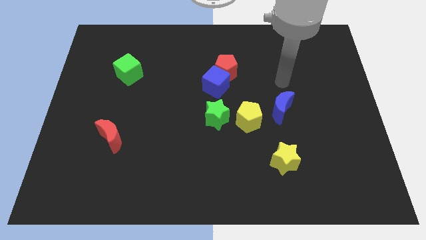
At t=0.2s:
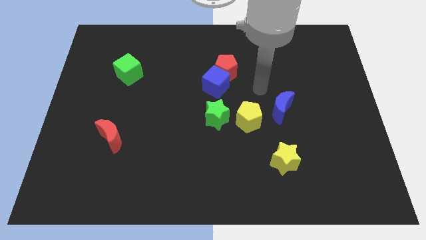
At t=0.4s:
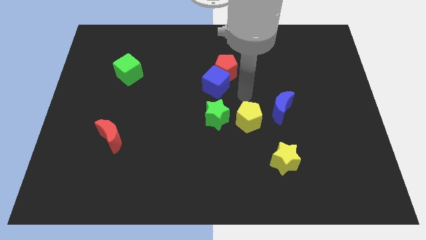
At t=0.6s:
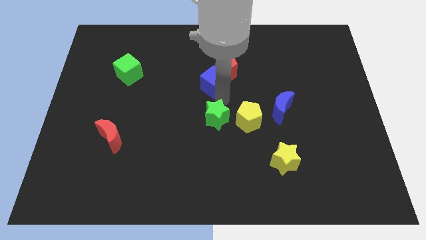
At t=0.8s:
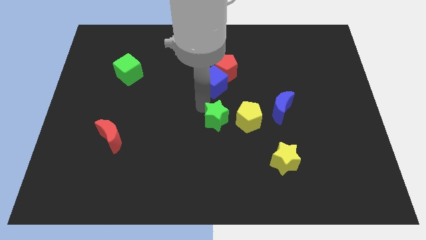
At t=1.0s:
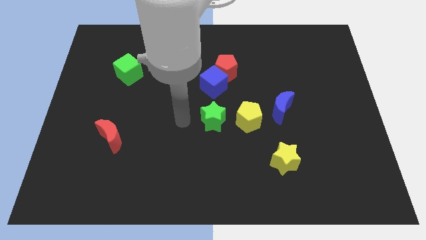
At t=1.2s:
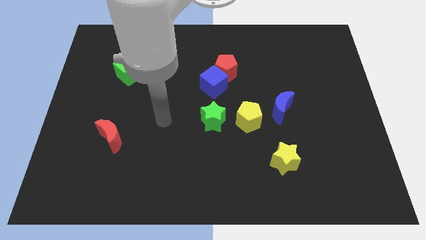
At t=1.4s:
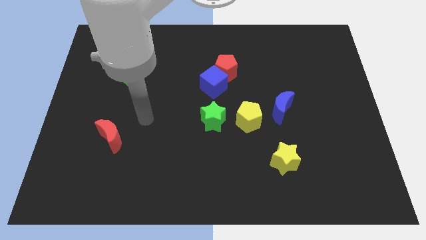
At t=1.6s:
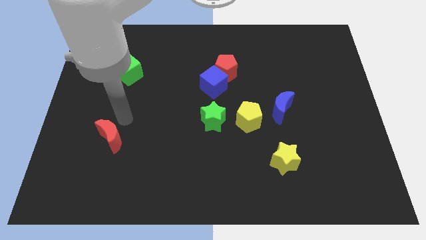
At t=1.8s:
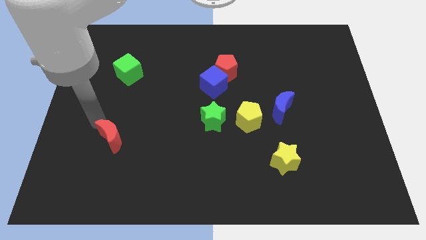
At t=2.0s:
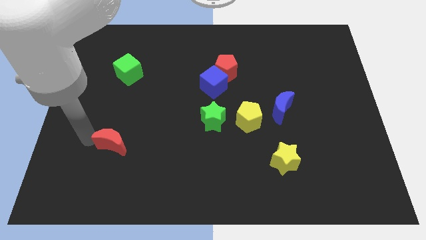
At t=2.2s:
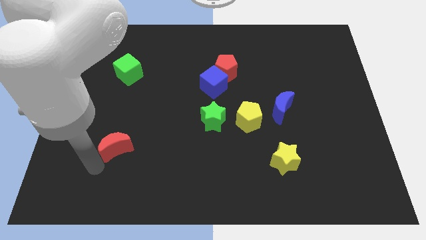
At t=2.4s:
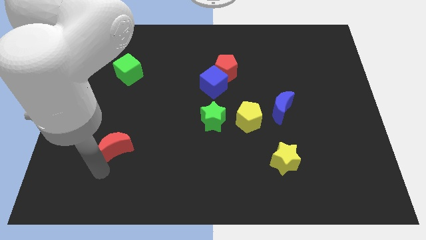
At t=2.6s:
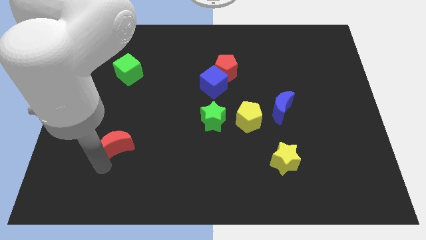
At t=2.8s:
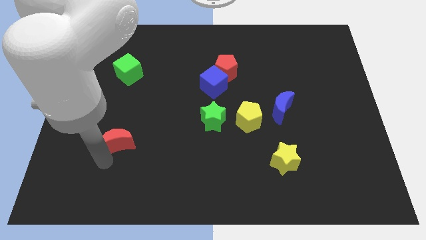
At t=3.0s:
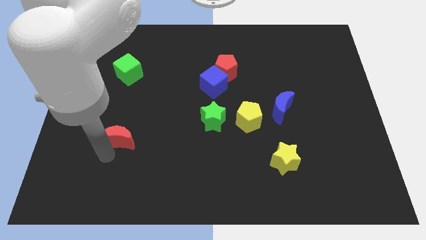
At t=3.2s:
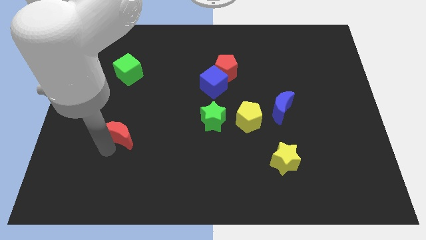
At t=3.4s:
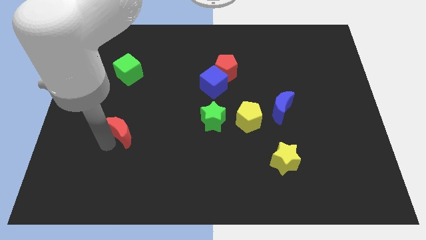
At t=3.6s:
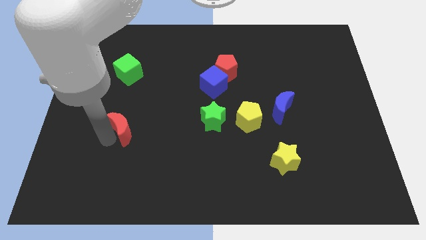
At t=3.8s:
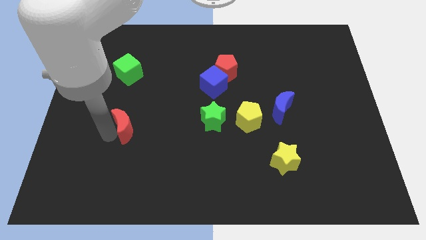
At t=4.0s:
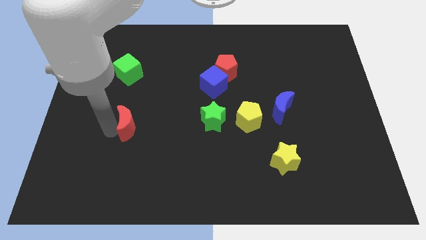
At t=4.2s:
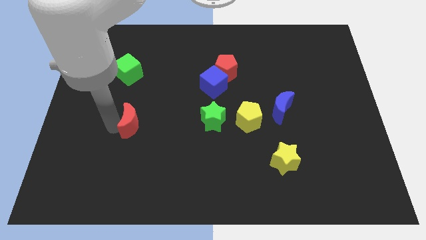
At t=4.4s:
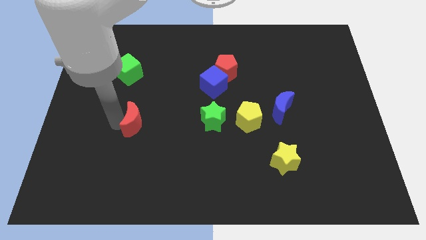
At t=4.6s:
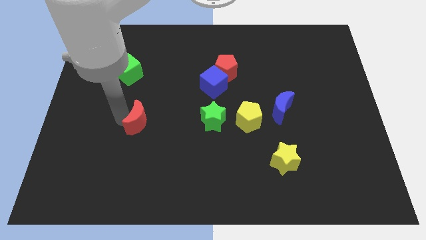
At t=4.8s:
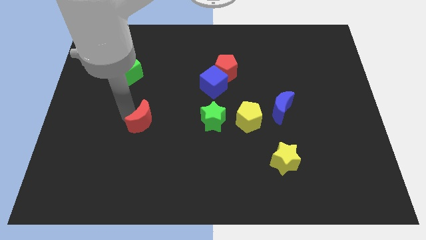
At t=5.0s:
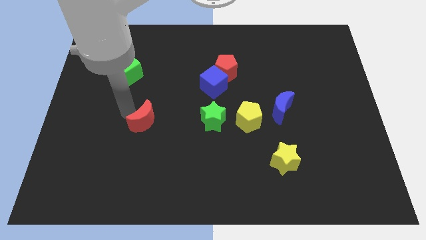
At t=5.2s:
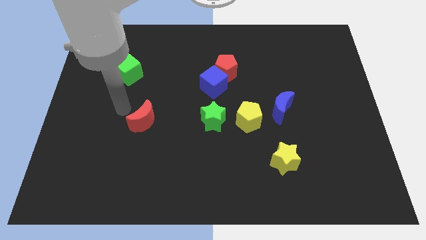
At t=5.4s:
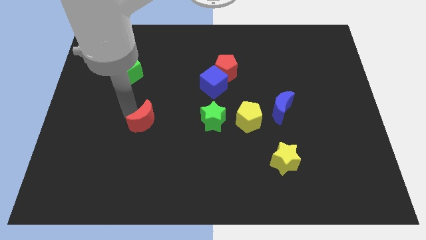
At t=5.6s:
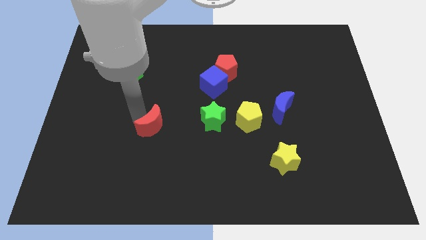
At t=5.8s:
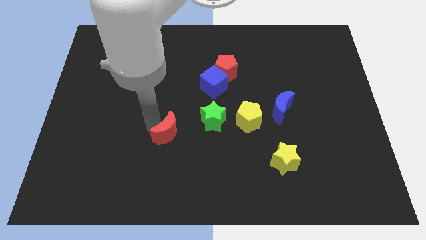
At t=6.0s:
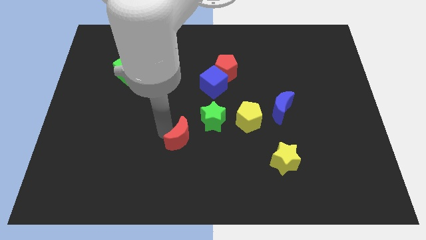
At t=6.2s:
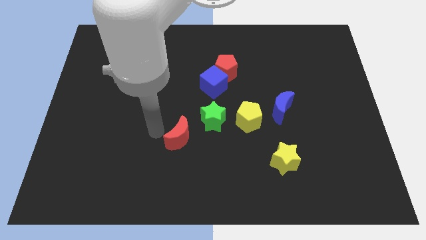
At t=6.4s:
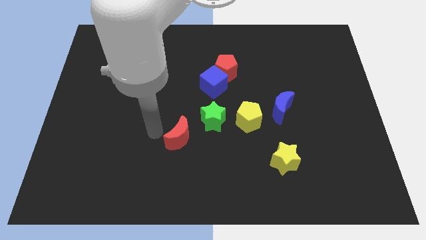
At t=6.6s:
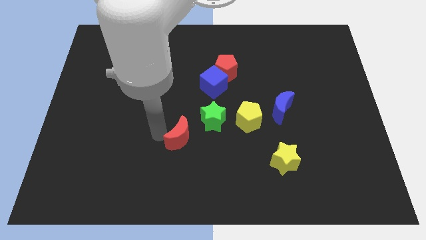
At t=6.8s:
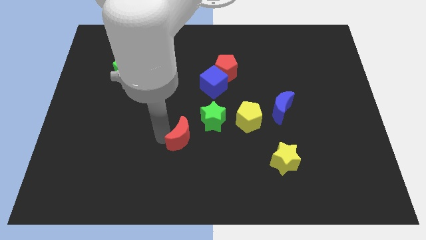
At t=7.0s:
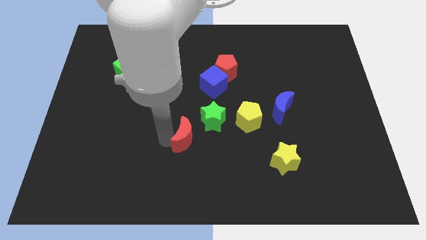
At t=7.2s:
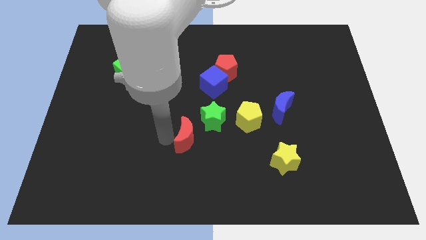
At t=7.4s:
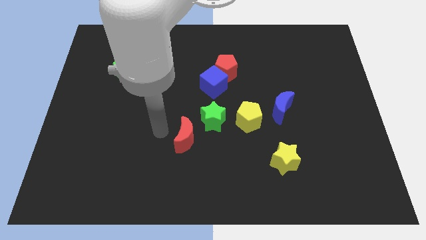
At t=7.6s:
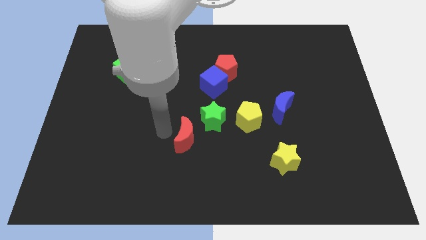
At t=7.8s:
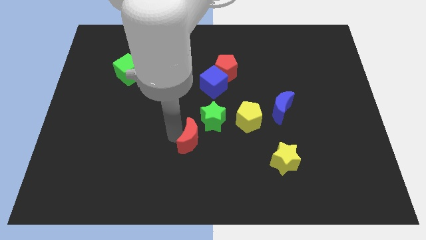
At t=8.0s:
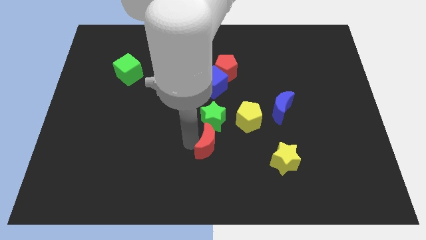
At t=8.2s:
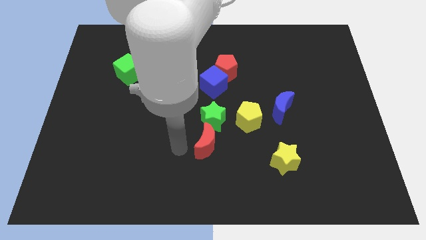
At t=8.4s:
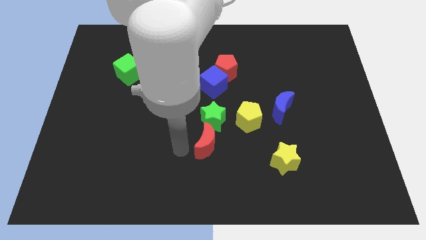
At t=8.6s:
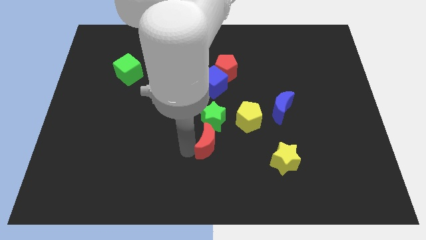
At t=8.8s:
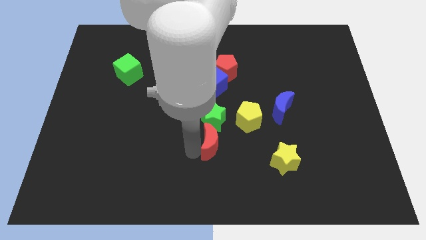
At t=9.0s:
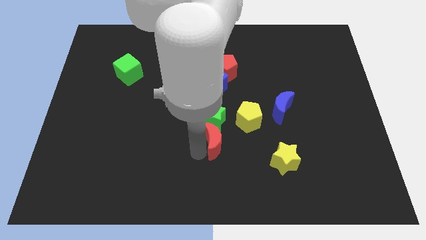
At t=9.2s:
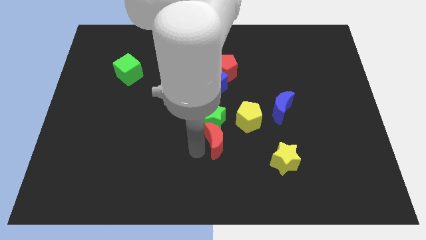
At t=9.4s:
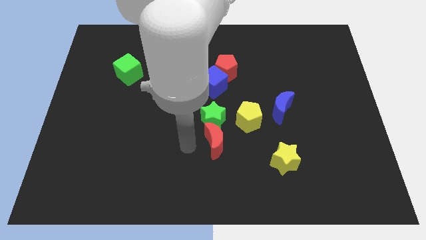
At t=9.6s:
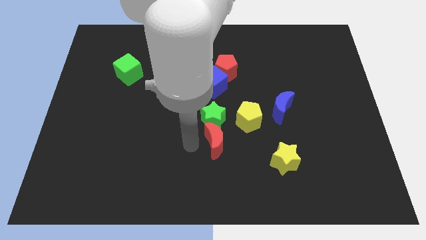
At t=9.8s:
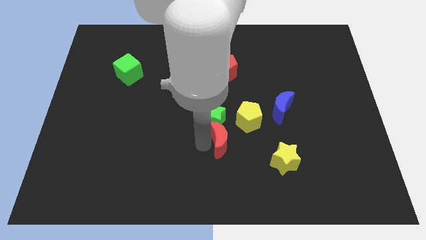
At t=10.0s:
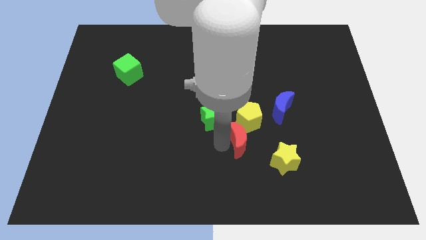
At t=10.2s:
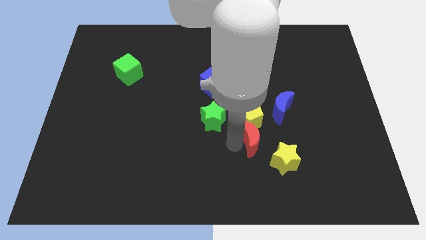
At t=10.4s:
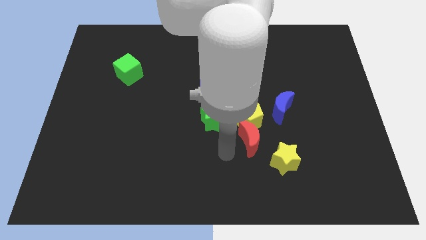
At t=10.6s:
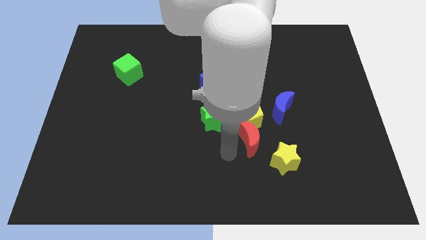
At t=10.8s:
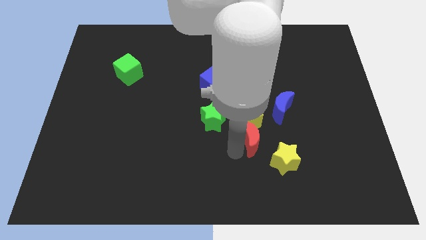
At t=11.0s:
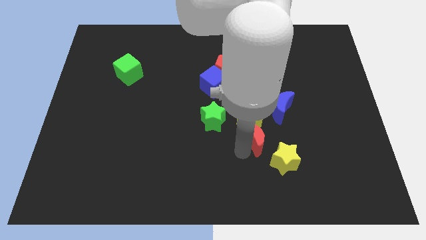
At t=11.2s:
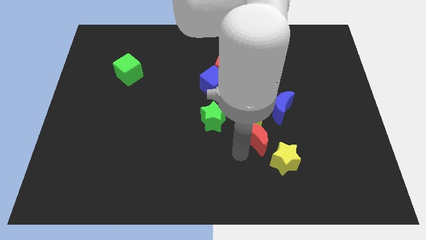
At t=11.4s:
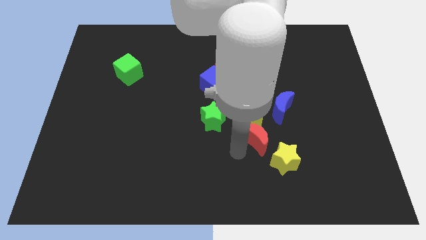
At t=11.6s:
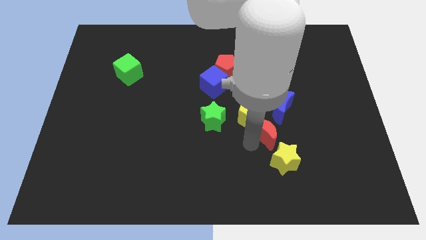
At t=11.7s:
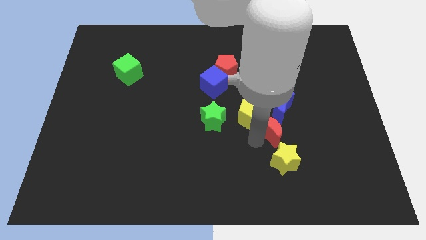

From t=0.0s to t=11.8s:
put the red moon right of the yellow pentagon

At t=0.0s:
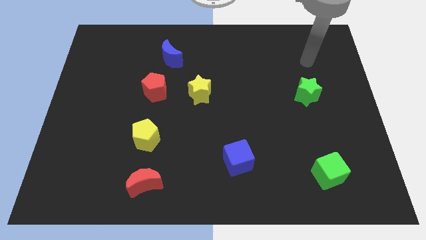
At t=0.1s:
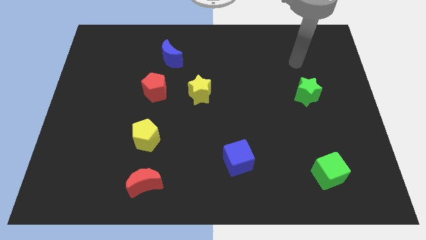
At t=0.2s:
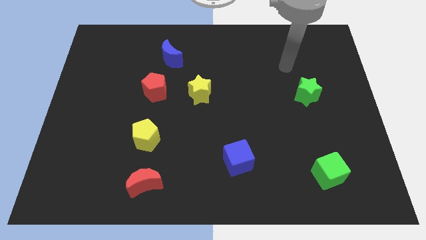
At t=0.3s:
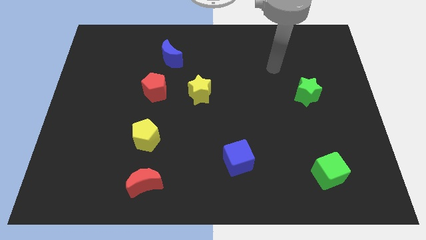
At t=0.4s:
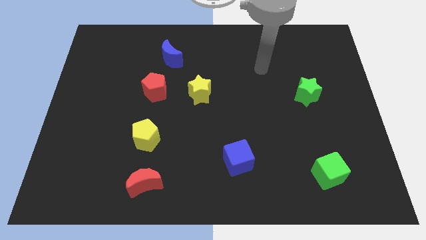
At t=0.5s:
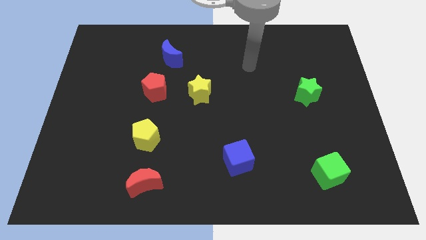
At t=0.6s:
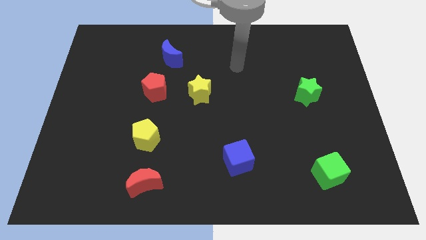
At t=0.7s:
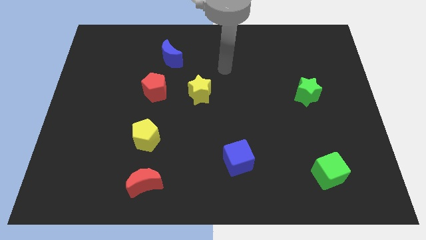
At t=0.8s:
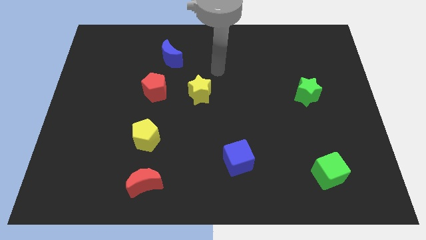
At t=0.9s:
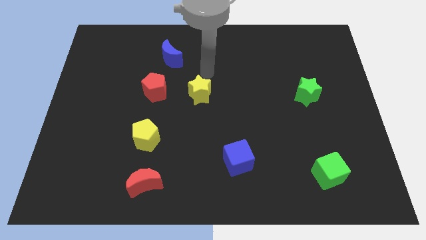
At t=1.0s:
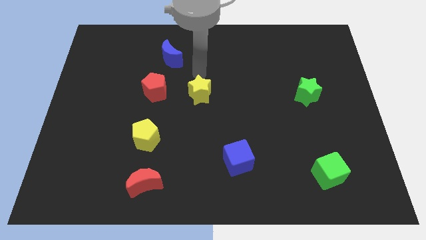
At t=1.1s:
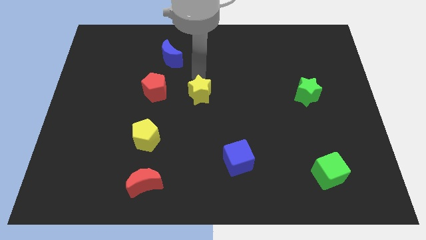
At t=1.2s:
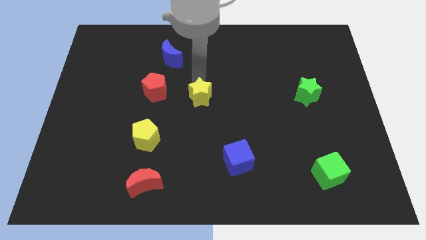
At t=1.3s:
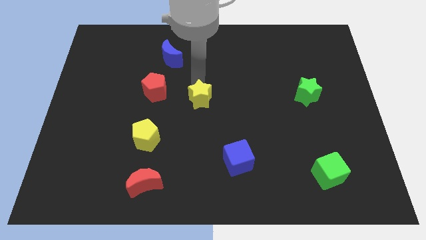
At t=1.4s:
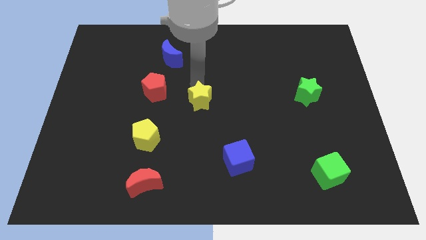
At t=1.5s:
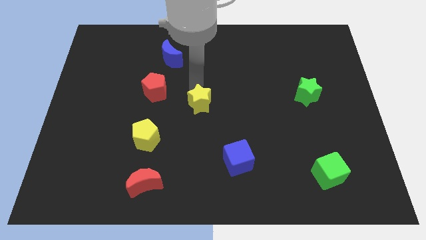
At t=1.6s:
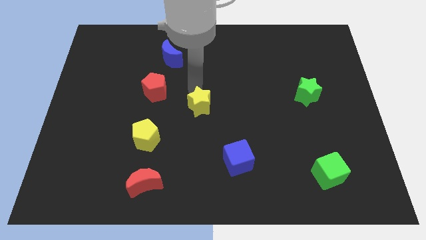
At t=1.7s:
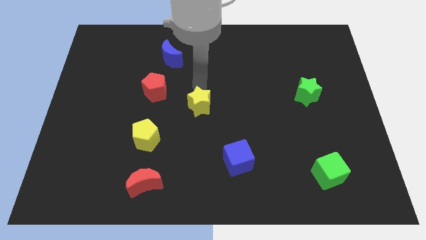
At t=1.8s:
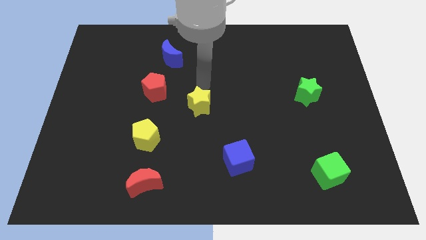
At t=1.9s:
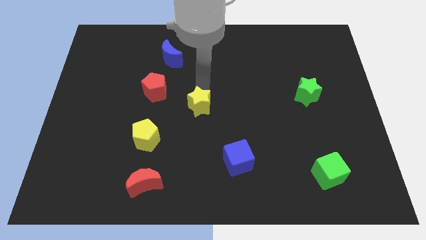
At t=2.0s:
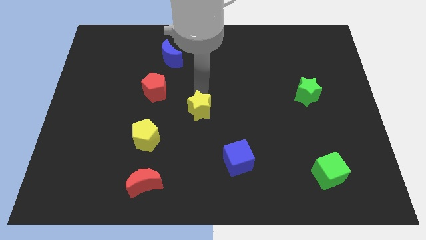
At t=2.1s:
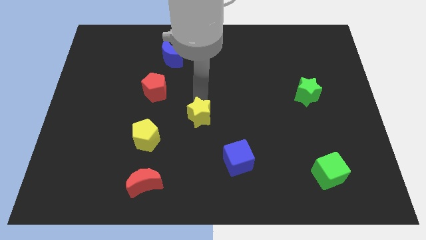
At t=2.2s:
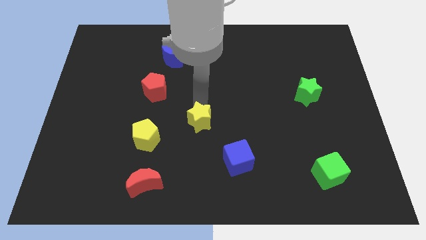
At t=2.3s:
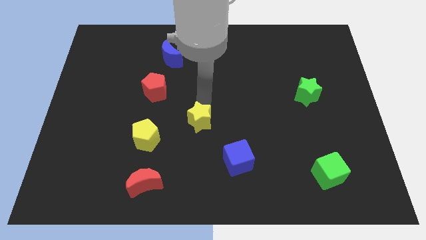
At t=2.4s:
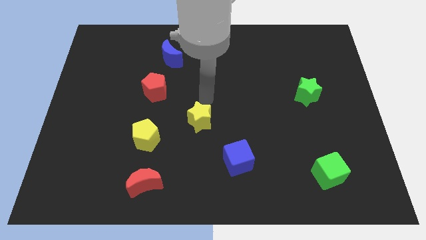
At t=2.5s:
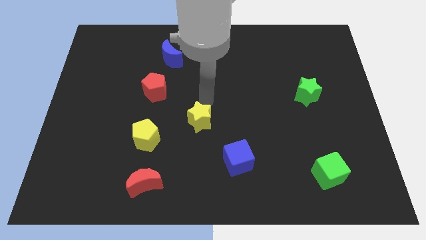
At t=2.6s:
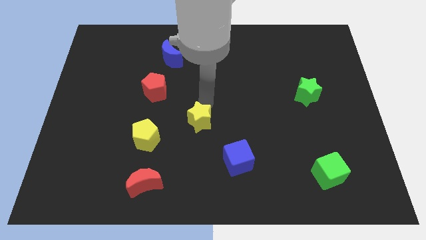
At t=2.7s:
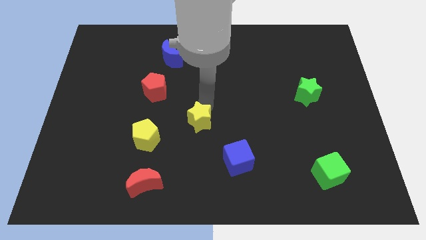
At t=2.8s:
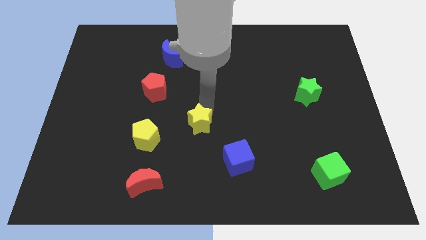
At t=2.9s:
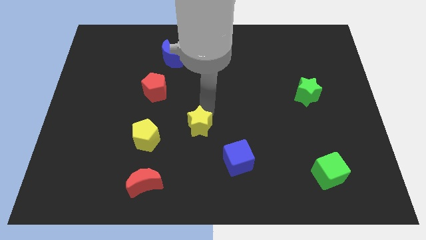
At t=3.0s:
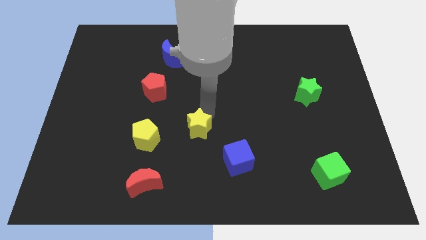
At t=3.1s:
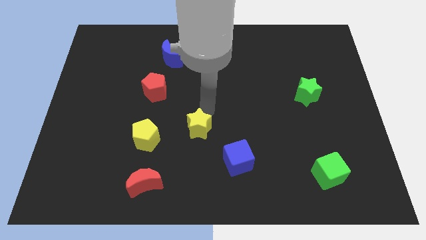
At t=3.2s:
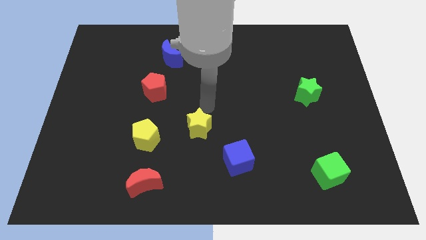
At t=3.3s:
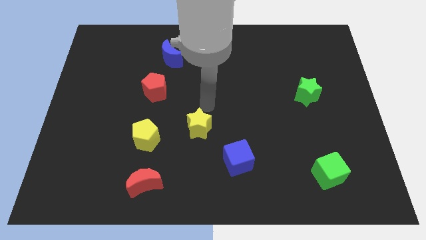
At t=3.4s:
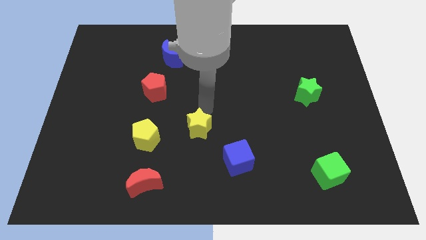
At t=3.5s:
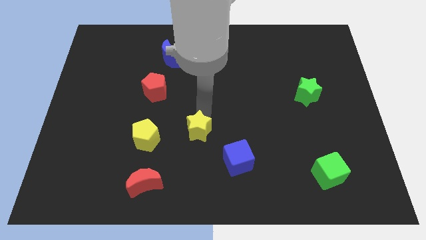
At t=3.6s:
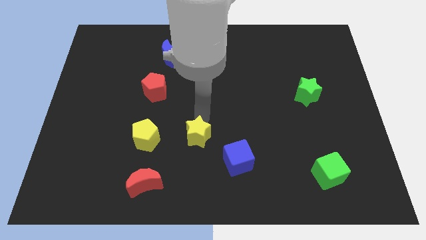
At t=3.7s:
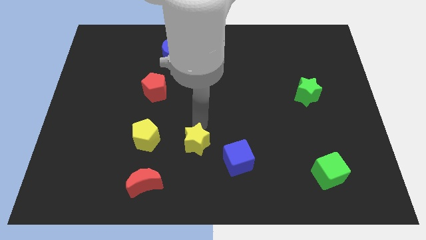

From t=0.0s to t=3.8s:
slide the yellow star to the left side of the blue cube
